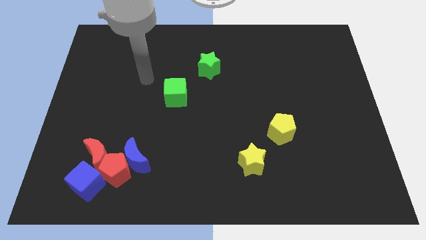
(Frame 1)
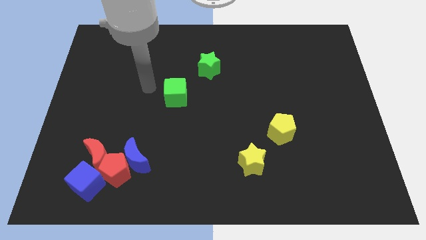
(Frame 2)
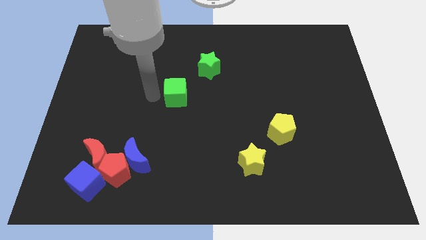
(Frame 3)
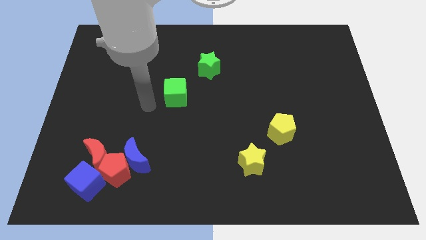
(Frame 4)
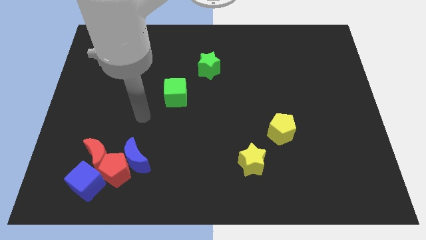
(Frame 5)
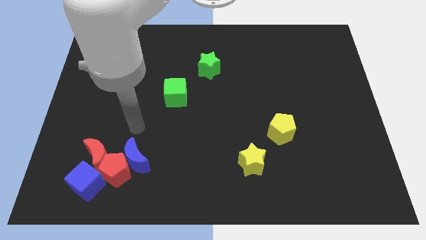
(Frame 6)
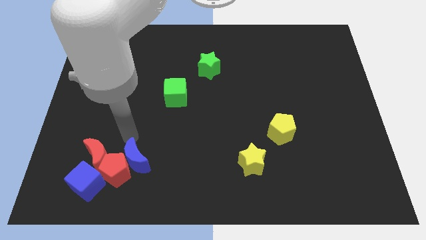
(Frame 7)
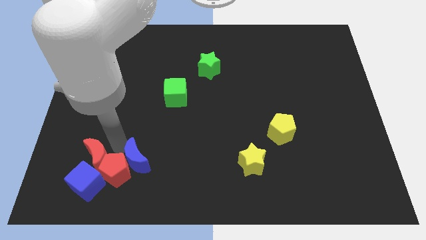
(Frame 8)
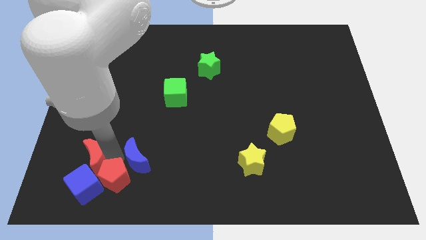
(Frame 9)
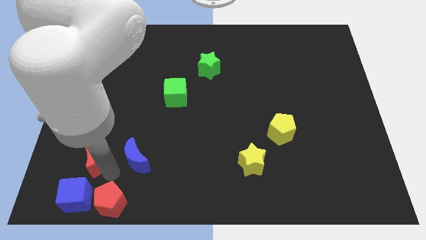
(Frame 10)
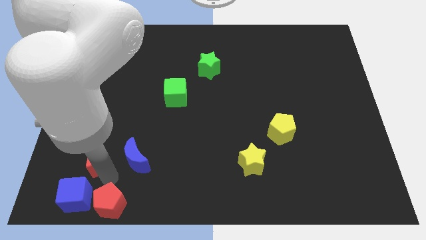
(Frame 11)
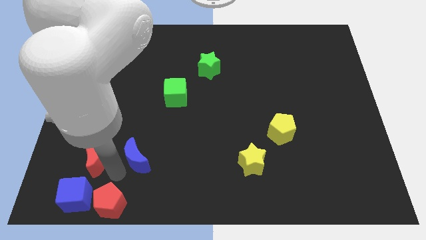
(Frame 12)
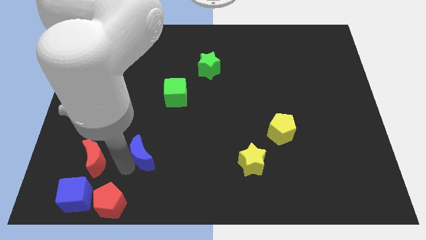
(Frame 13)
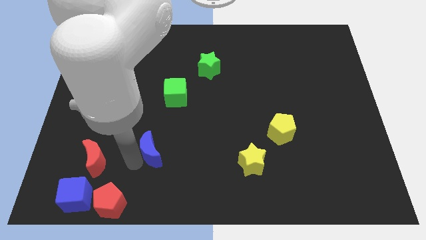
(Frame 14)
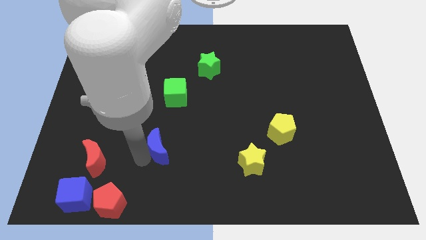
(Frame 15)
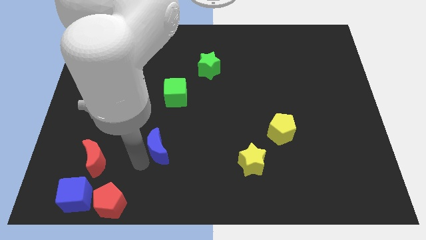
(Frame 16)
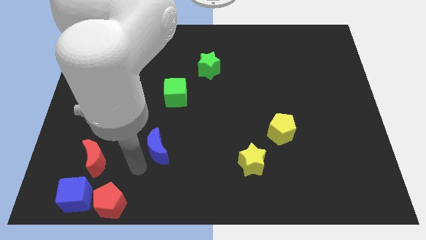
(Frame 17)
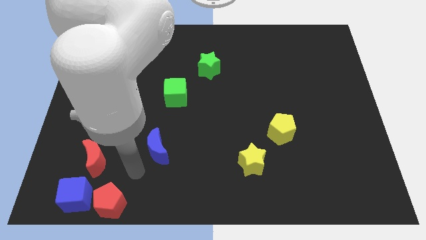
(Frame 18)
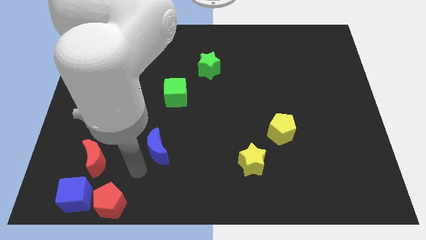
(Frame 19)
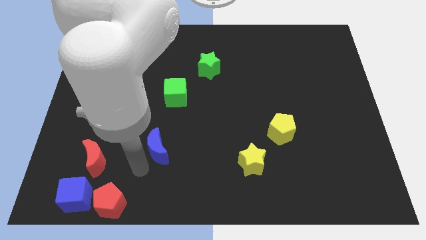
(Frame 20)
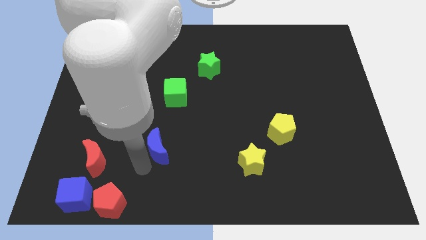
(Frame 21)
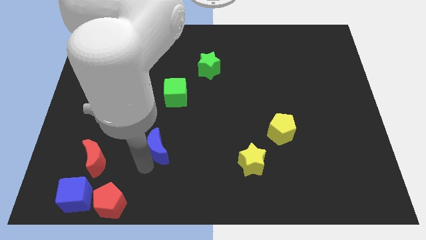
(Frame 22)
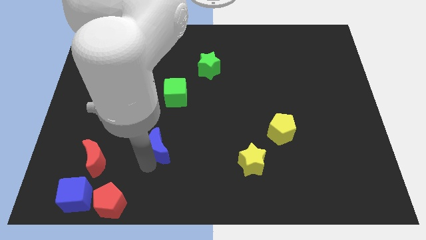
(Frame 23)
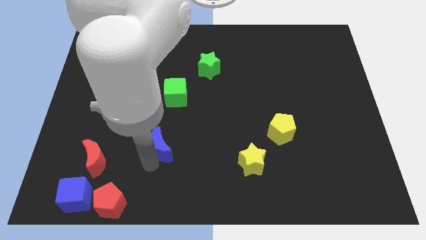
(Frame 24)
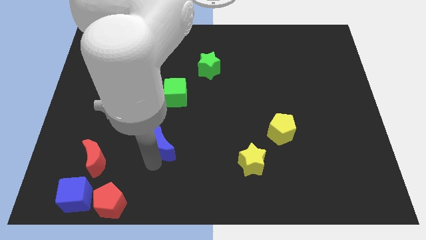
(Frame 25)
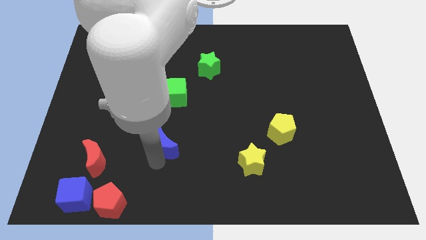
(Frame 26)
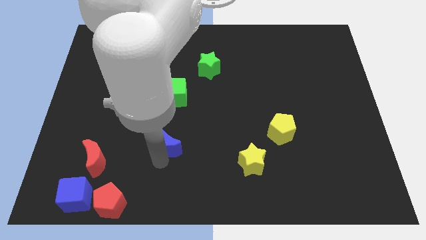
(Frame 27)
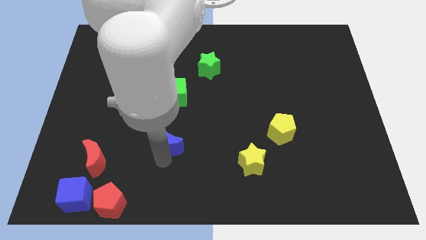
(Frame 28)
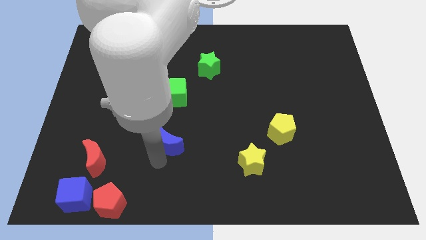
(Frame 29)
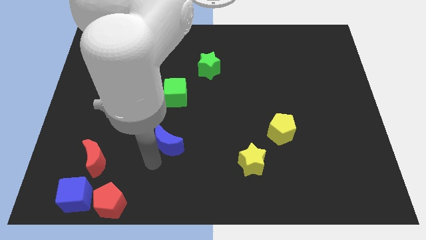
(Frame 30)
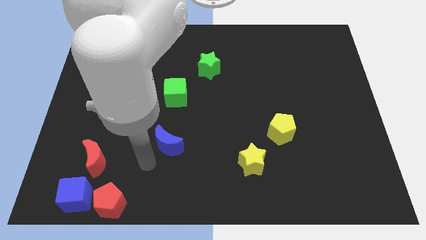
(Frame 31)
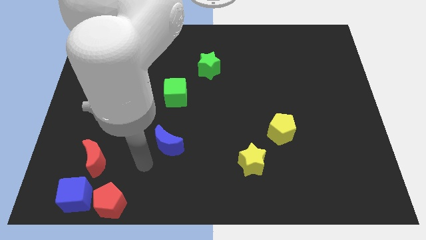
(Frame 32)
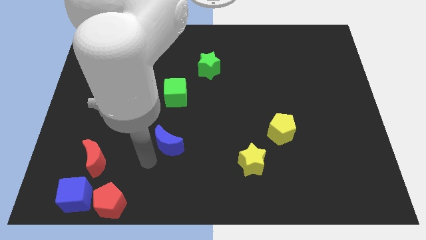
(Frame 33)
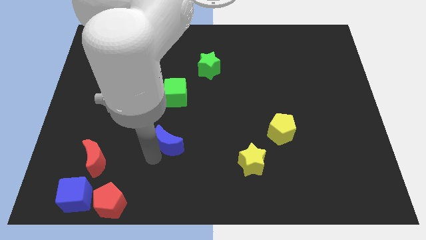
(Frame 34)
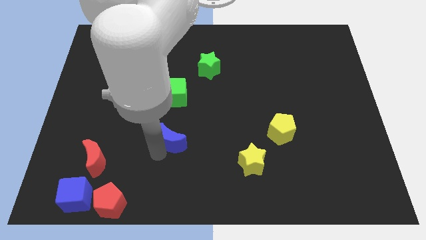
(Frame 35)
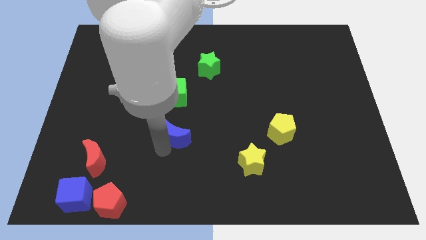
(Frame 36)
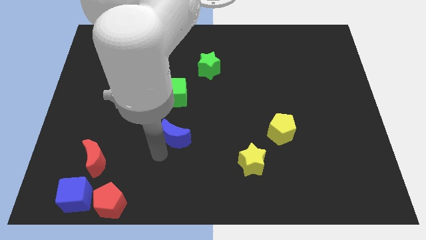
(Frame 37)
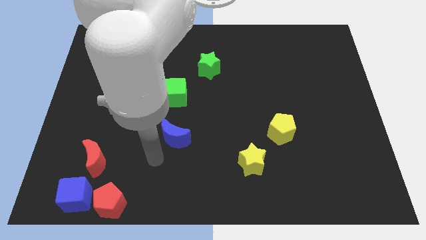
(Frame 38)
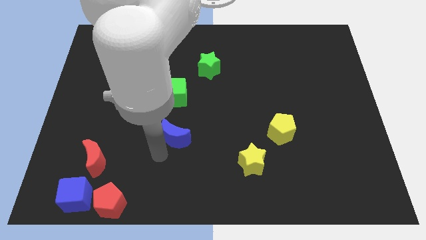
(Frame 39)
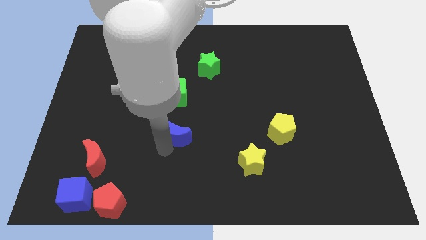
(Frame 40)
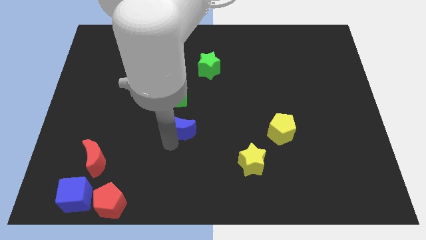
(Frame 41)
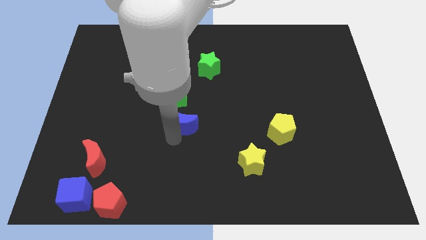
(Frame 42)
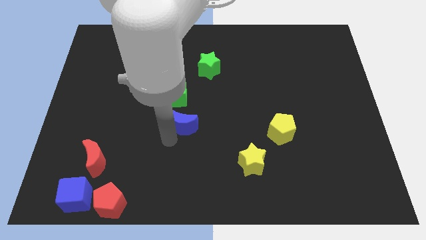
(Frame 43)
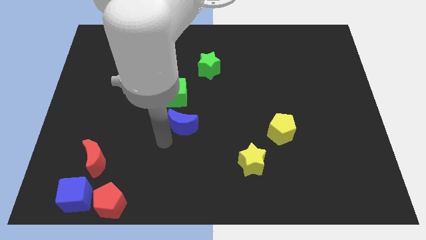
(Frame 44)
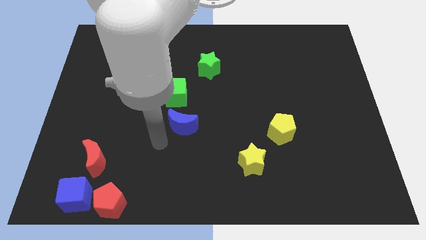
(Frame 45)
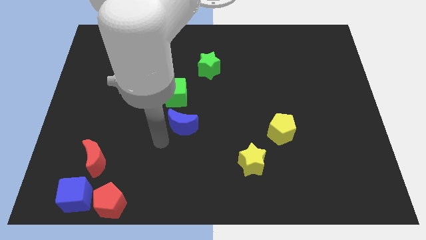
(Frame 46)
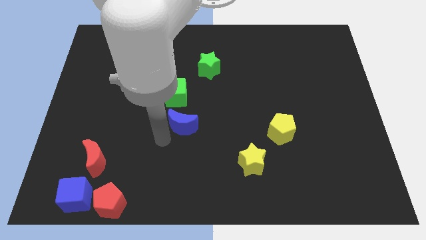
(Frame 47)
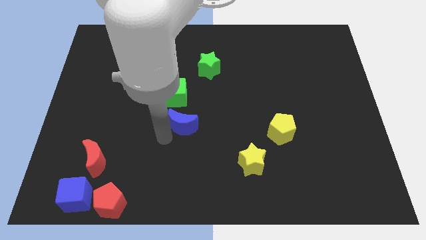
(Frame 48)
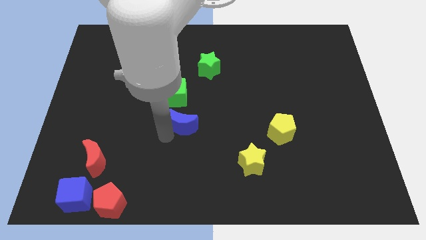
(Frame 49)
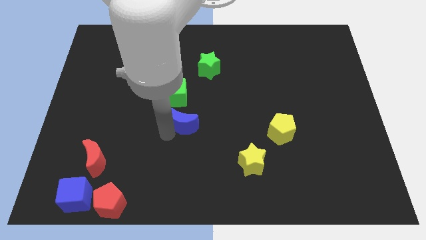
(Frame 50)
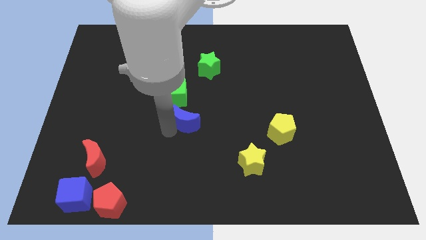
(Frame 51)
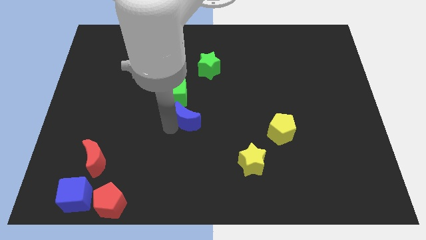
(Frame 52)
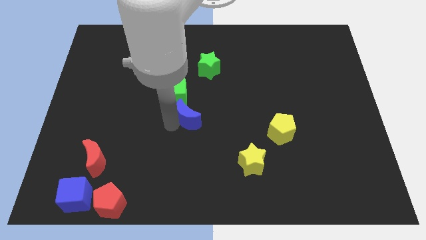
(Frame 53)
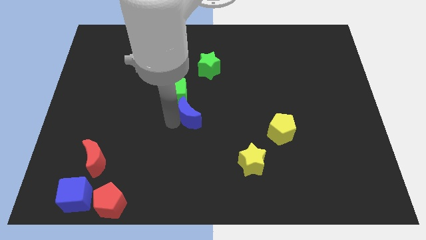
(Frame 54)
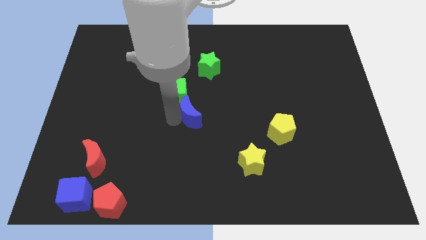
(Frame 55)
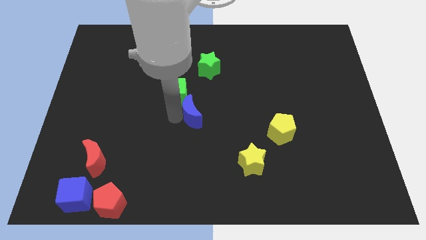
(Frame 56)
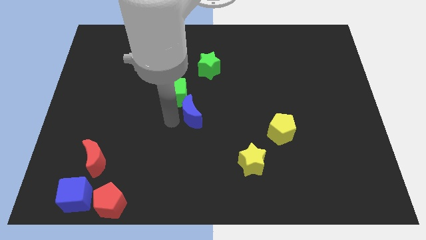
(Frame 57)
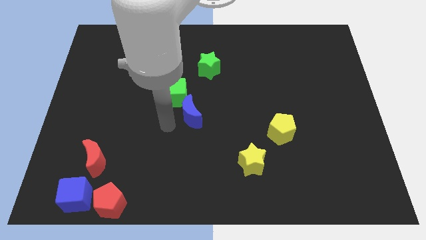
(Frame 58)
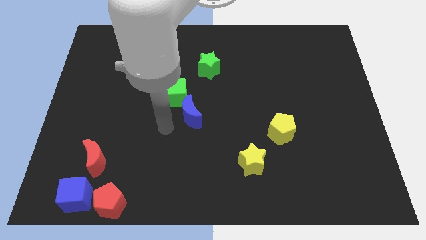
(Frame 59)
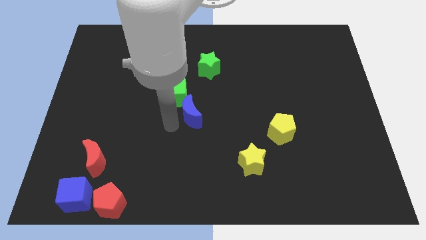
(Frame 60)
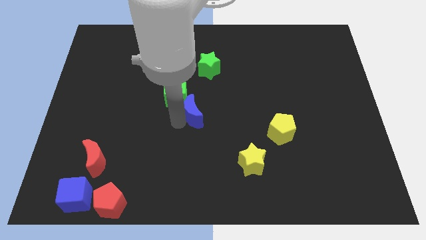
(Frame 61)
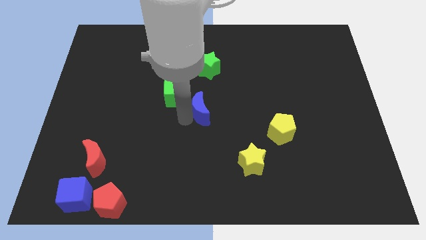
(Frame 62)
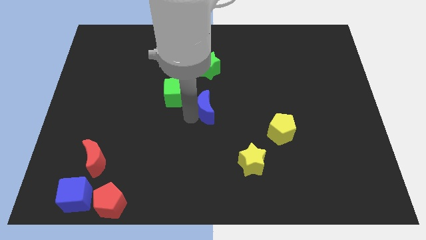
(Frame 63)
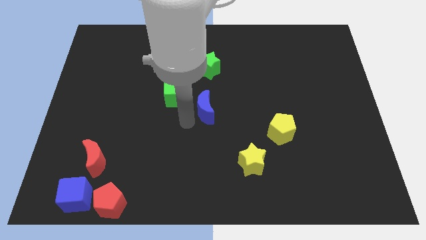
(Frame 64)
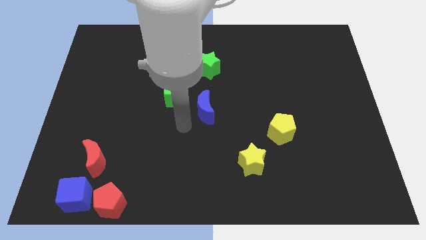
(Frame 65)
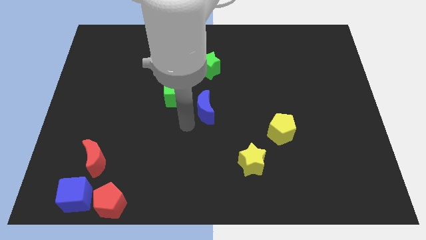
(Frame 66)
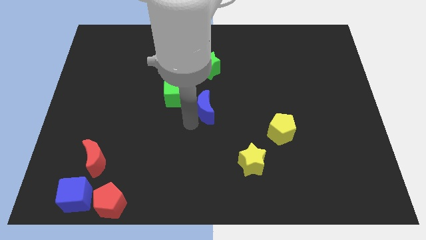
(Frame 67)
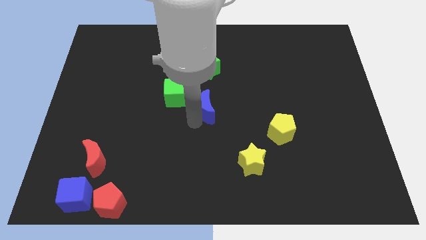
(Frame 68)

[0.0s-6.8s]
push the blue moon upwards and to the right diagonally

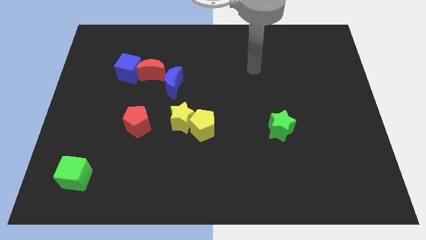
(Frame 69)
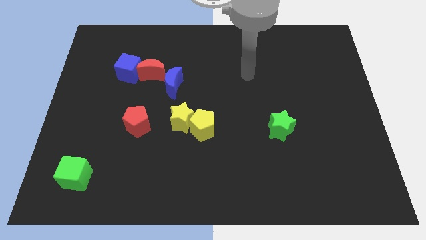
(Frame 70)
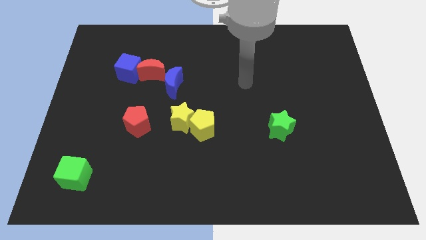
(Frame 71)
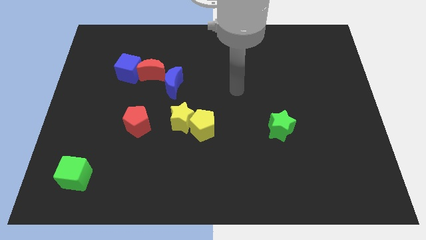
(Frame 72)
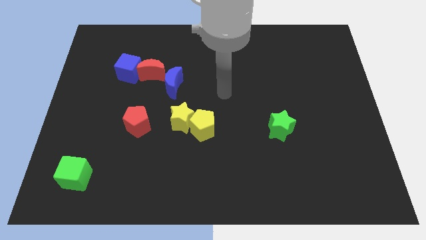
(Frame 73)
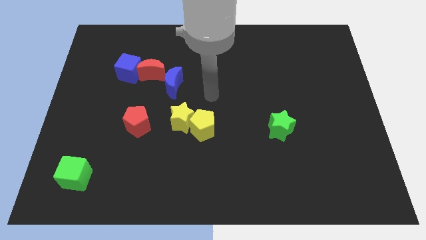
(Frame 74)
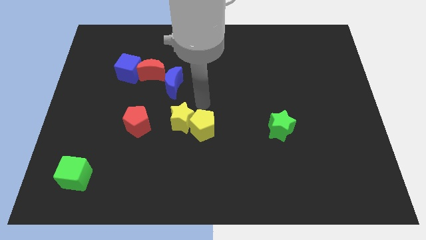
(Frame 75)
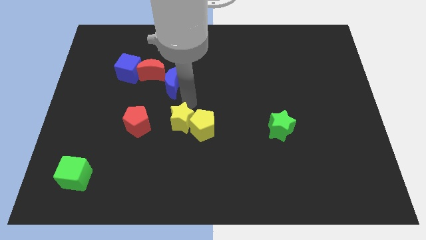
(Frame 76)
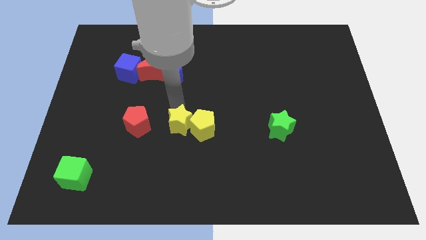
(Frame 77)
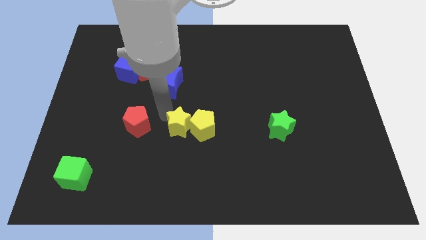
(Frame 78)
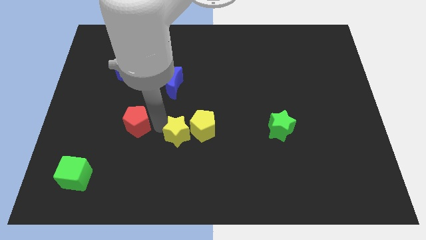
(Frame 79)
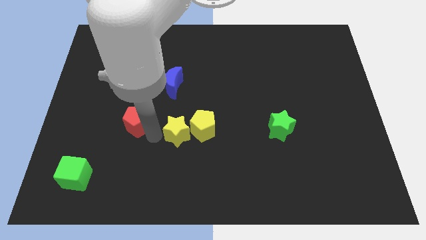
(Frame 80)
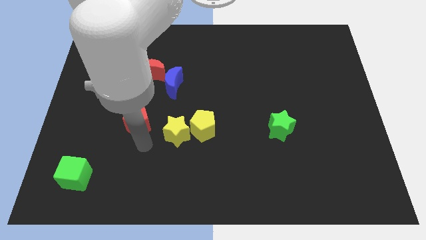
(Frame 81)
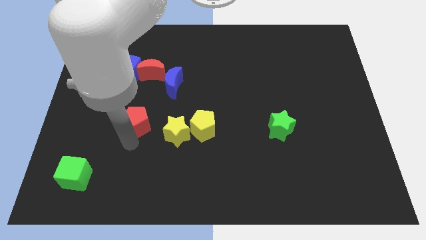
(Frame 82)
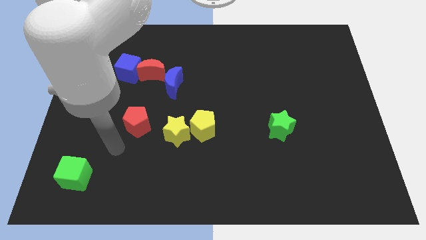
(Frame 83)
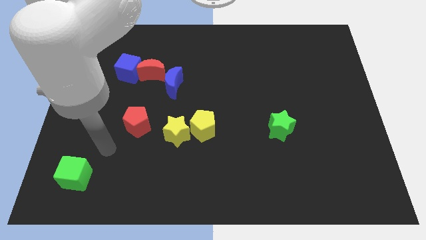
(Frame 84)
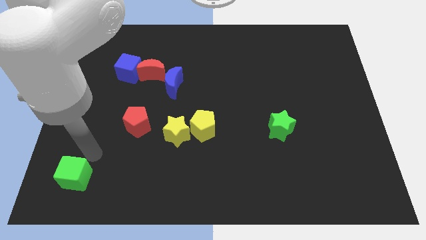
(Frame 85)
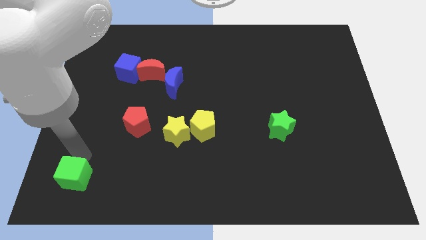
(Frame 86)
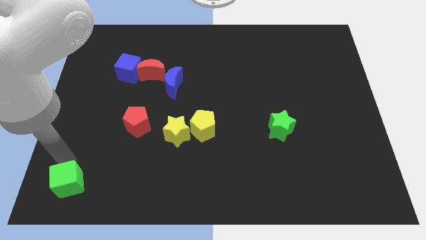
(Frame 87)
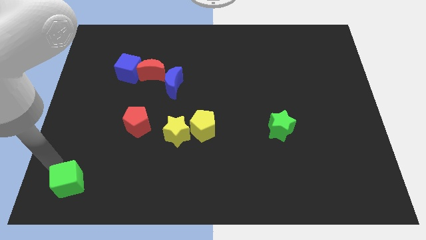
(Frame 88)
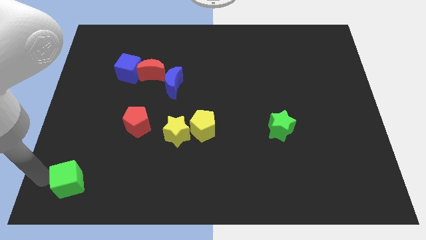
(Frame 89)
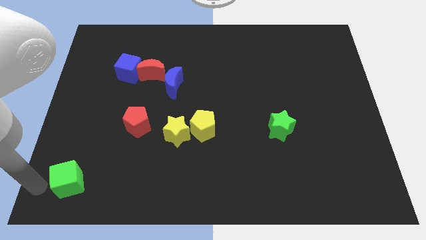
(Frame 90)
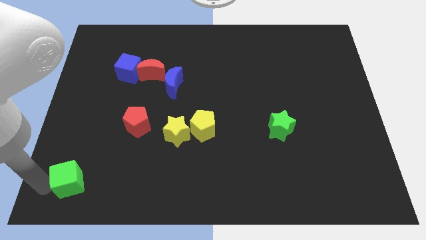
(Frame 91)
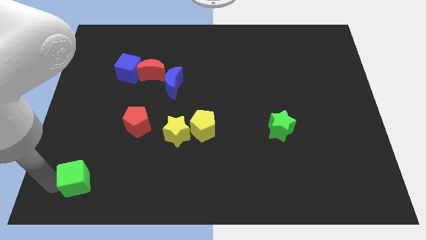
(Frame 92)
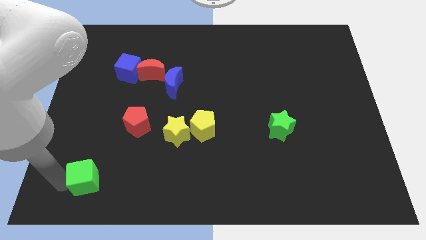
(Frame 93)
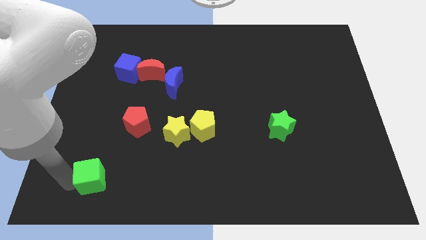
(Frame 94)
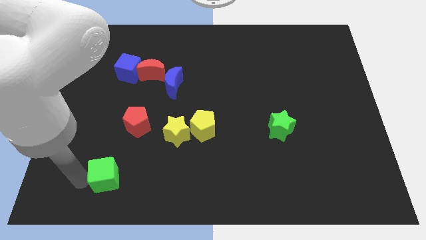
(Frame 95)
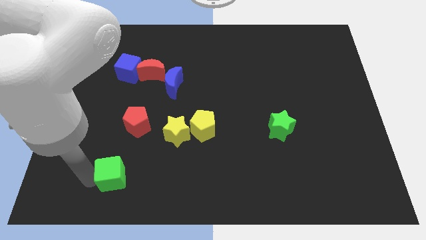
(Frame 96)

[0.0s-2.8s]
slightly slide the green cube right
